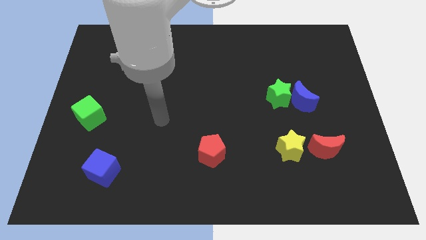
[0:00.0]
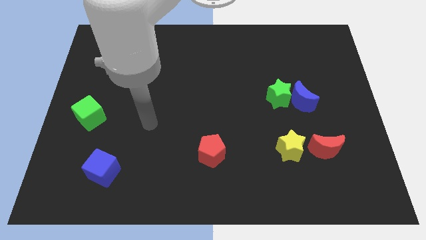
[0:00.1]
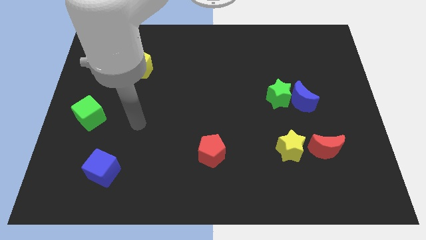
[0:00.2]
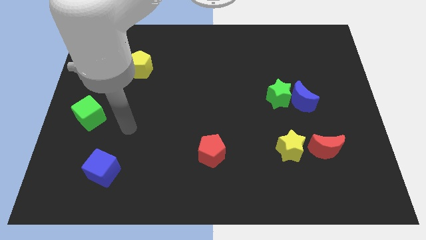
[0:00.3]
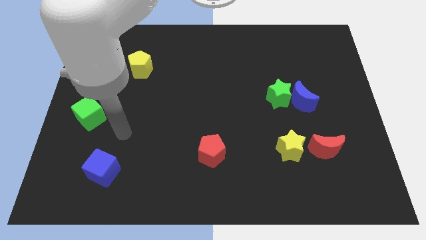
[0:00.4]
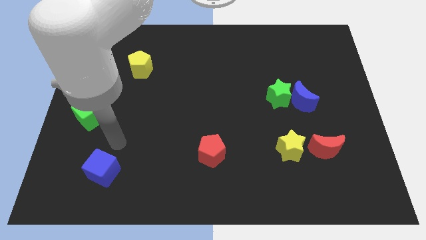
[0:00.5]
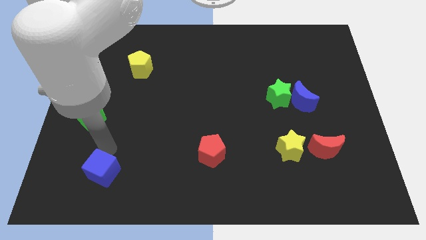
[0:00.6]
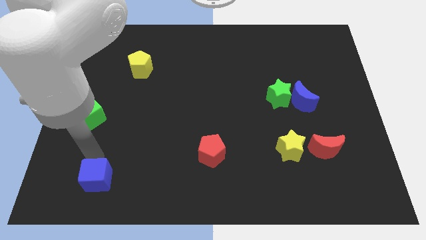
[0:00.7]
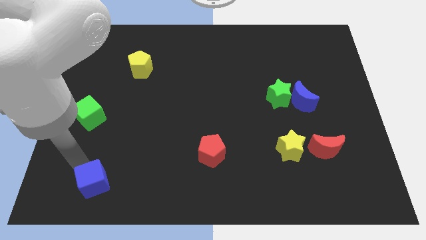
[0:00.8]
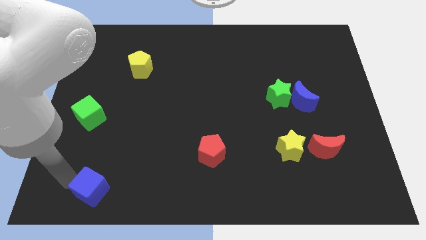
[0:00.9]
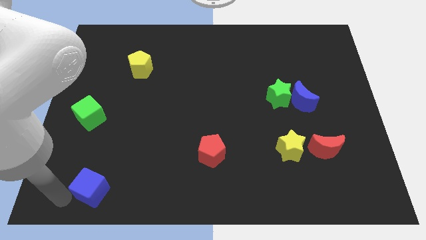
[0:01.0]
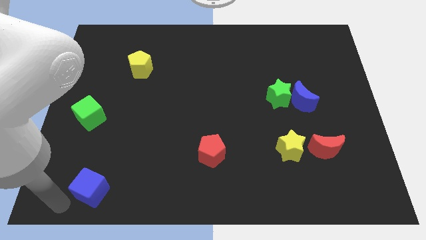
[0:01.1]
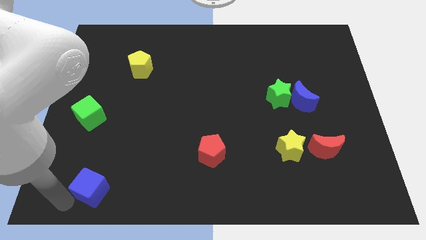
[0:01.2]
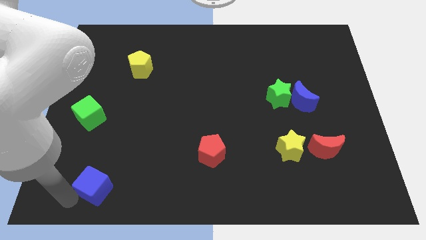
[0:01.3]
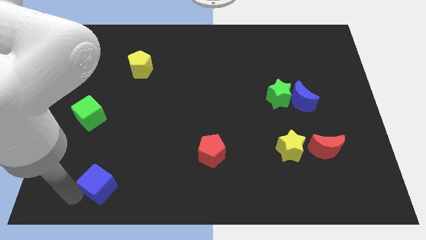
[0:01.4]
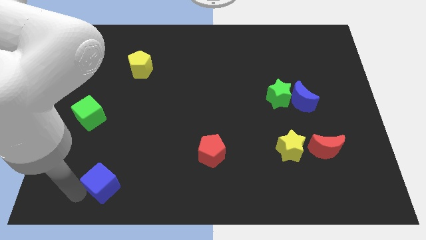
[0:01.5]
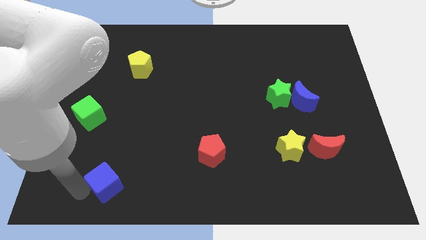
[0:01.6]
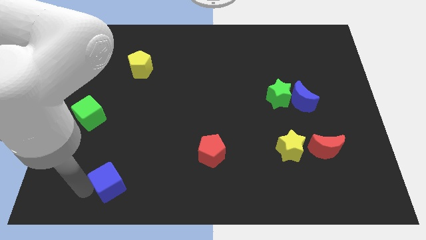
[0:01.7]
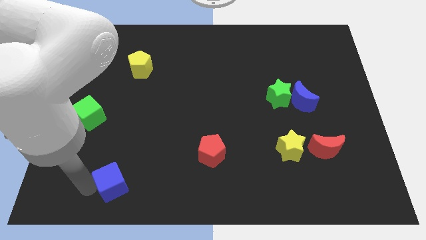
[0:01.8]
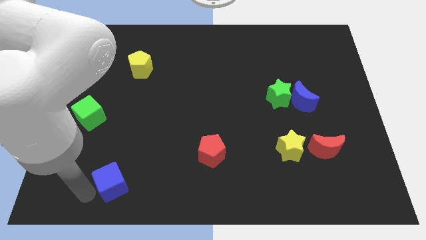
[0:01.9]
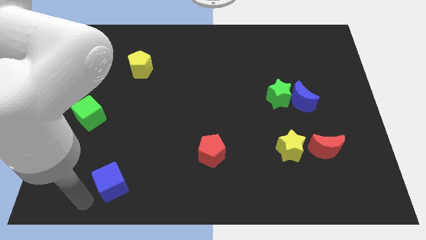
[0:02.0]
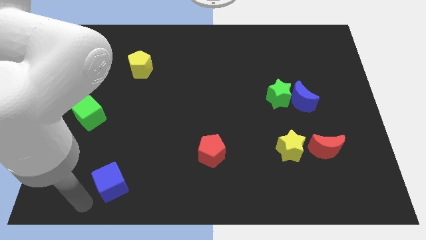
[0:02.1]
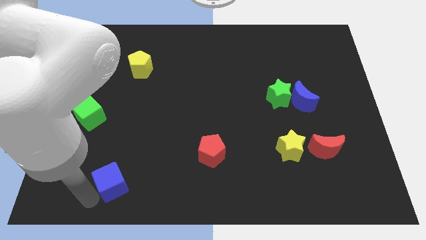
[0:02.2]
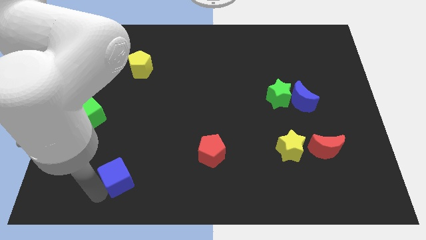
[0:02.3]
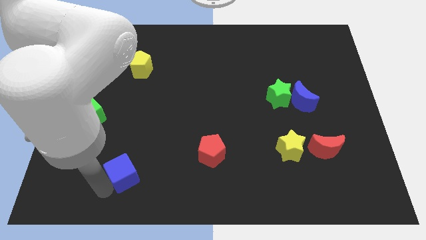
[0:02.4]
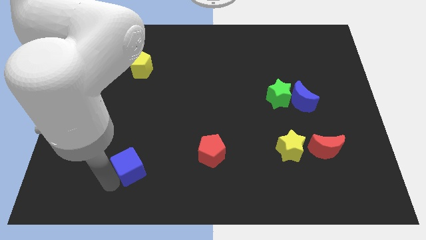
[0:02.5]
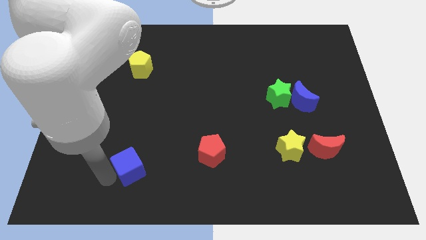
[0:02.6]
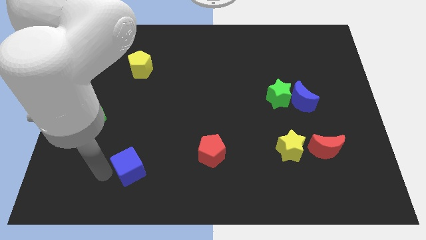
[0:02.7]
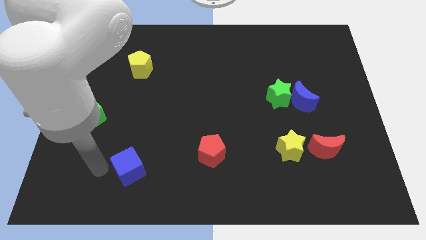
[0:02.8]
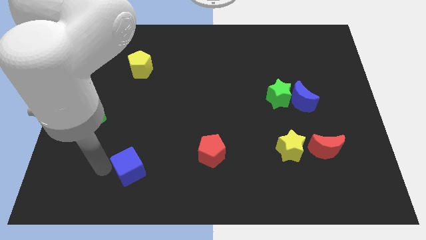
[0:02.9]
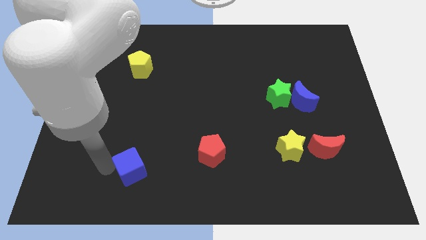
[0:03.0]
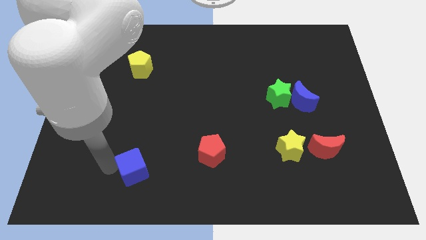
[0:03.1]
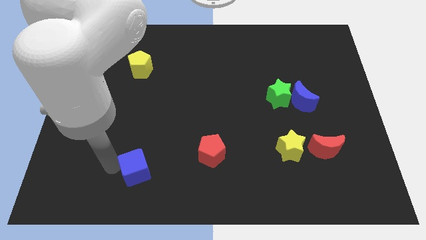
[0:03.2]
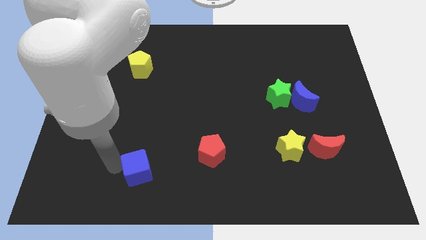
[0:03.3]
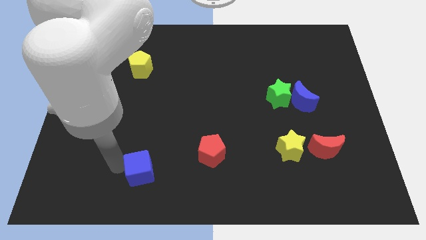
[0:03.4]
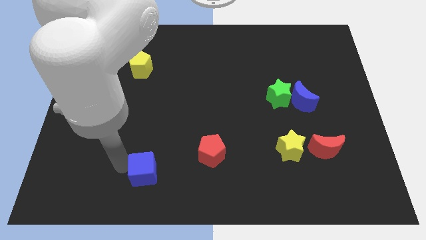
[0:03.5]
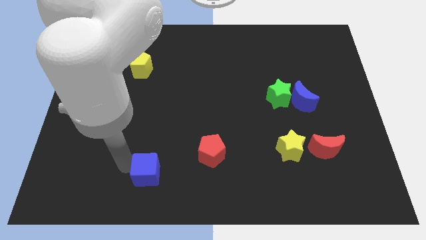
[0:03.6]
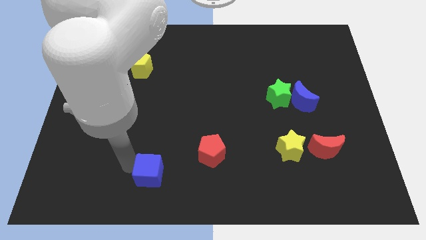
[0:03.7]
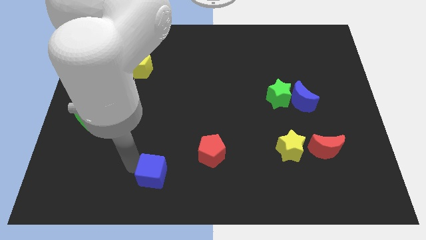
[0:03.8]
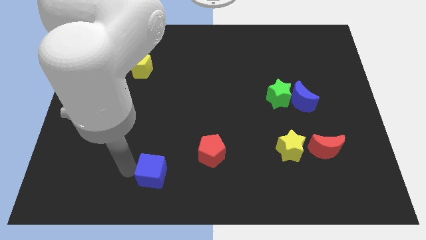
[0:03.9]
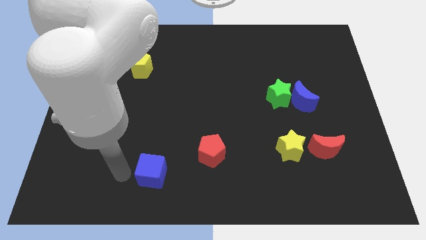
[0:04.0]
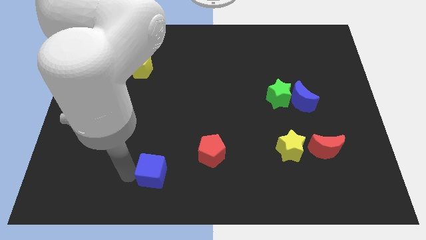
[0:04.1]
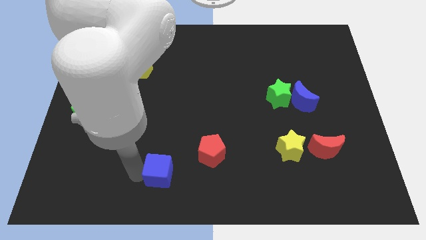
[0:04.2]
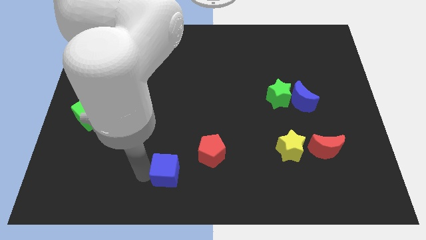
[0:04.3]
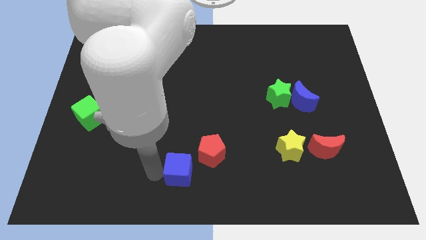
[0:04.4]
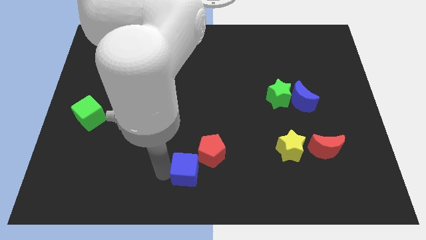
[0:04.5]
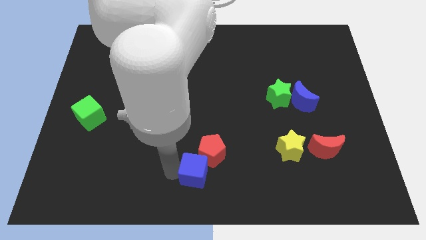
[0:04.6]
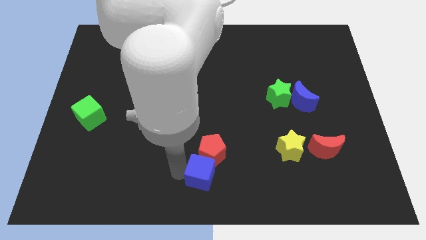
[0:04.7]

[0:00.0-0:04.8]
push the blue cube right

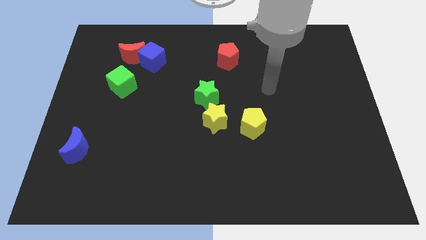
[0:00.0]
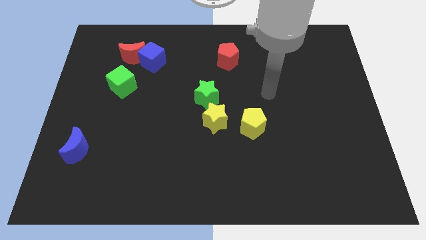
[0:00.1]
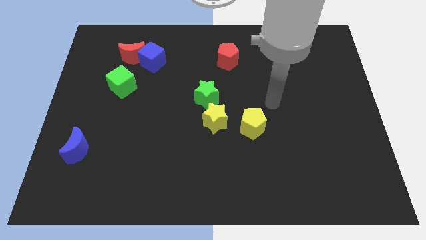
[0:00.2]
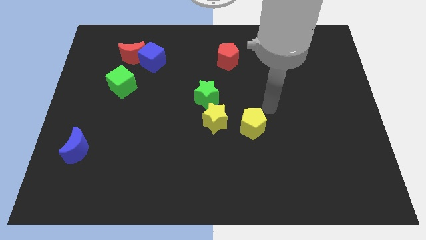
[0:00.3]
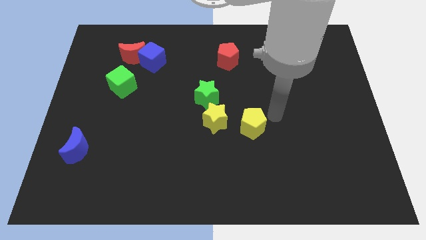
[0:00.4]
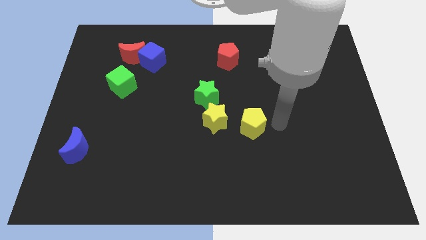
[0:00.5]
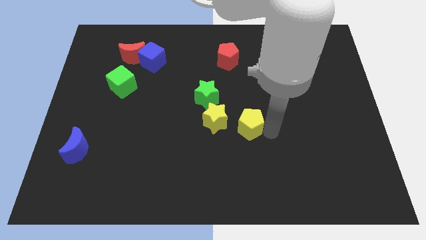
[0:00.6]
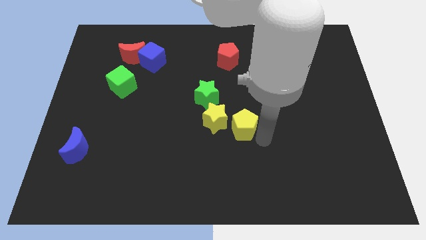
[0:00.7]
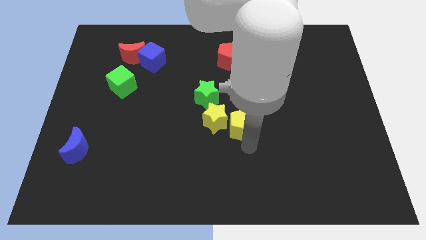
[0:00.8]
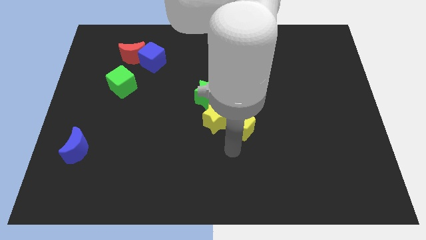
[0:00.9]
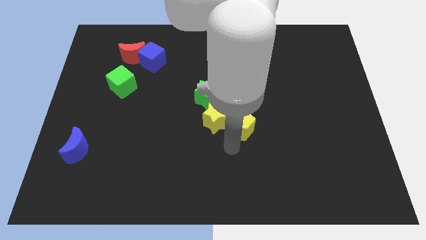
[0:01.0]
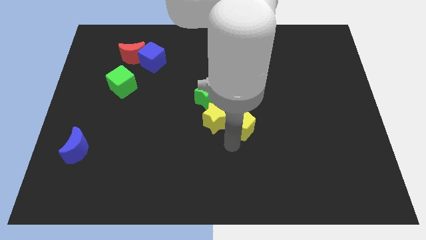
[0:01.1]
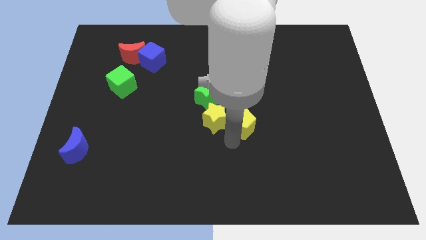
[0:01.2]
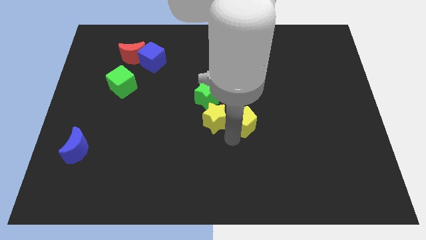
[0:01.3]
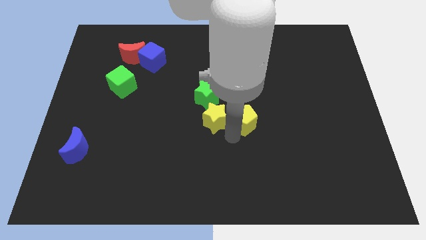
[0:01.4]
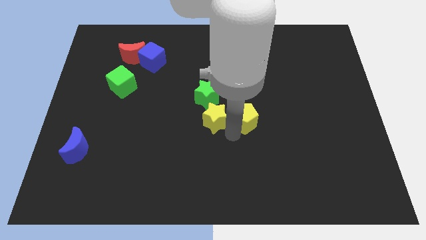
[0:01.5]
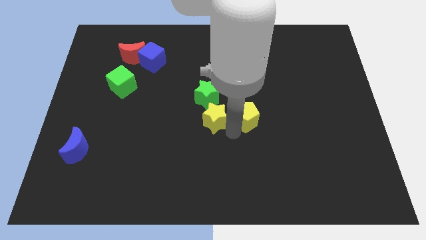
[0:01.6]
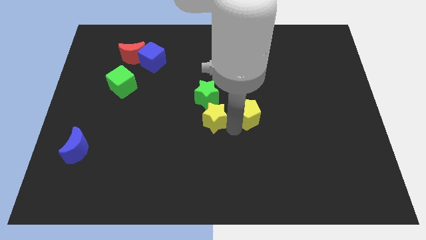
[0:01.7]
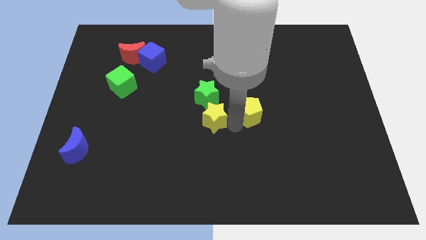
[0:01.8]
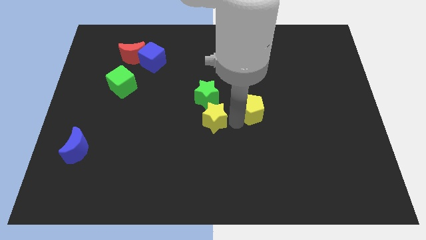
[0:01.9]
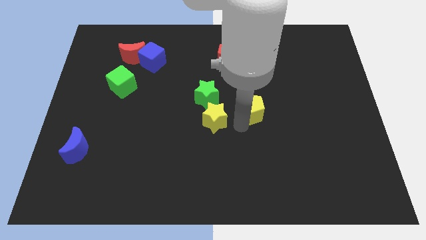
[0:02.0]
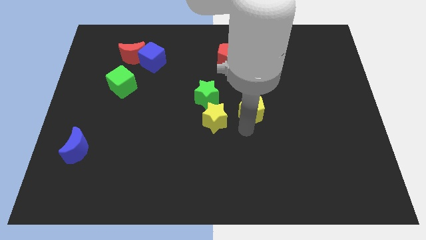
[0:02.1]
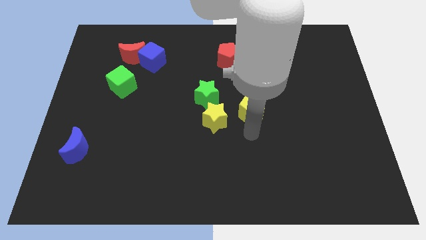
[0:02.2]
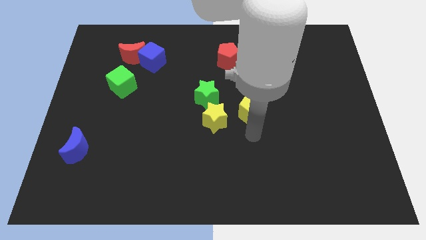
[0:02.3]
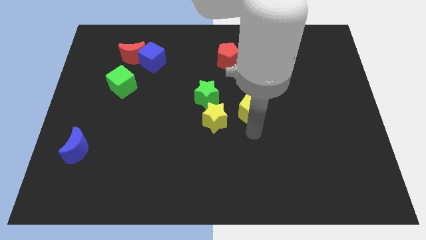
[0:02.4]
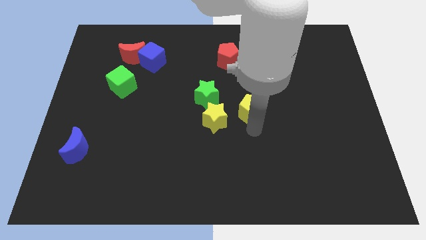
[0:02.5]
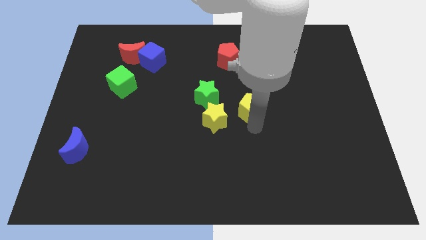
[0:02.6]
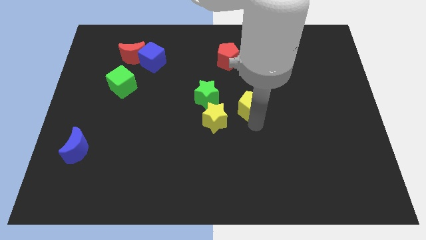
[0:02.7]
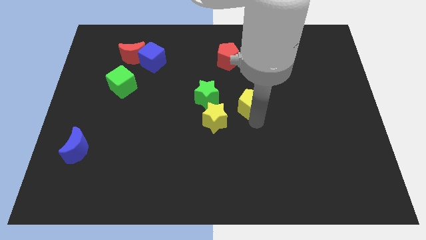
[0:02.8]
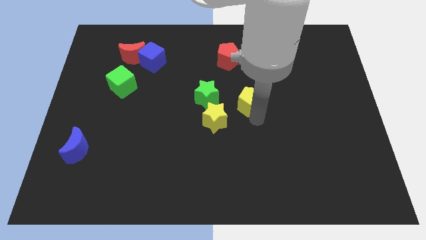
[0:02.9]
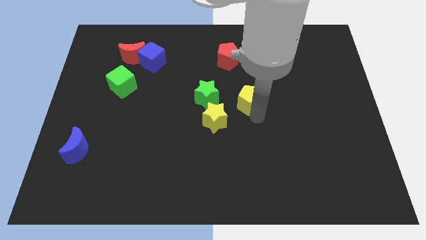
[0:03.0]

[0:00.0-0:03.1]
slide the yellow pentagon upwards slightly

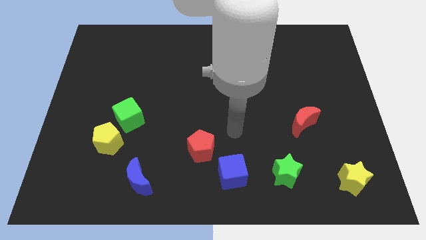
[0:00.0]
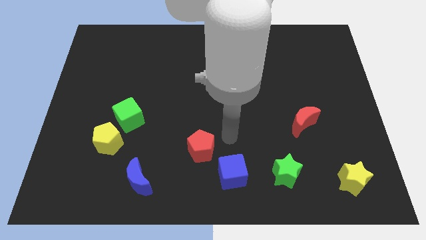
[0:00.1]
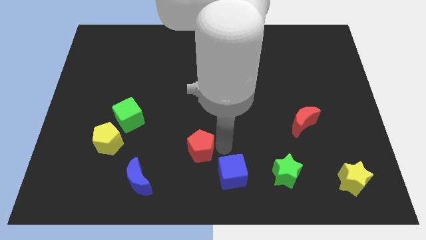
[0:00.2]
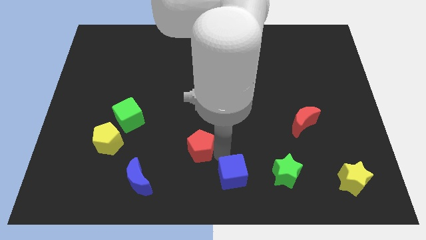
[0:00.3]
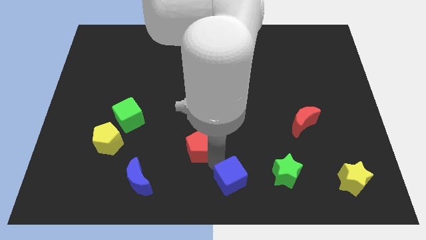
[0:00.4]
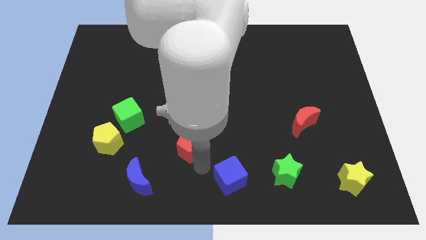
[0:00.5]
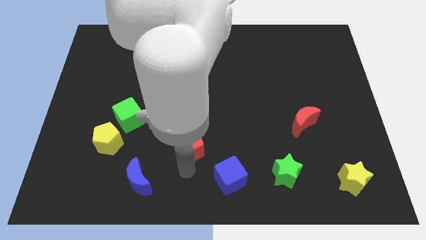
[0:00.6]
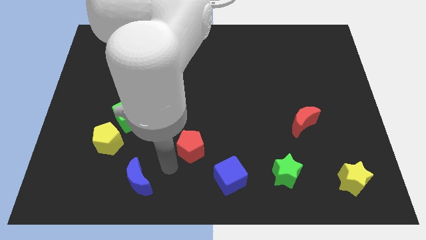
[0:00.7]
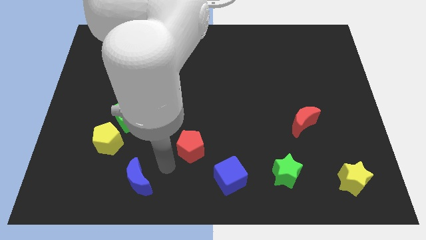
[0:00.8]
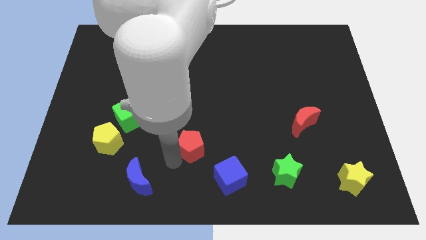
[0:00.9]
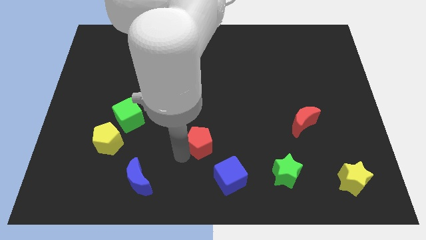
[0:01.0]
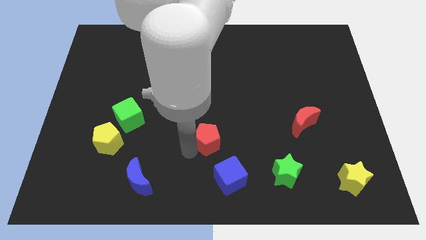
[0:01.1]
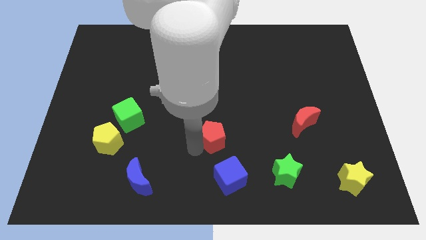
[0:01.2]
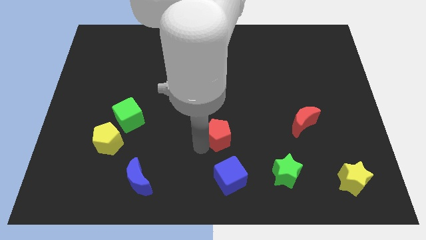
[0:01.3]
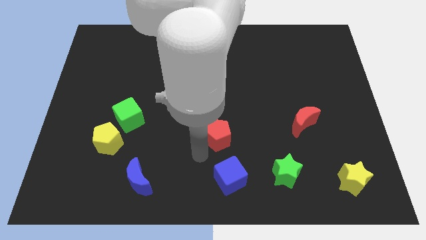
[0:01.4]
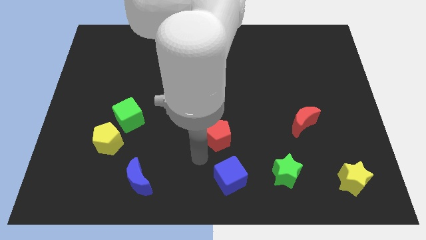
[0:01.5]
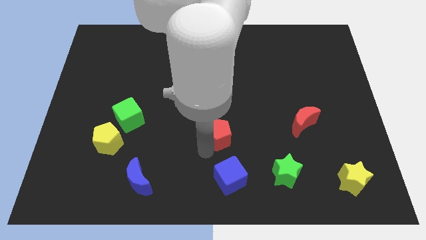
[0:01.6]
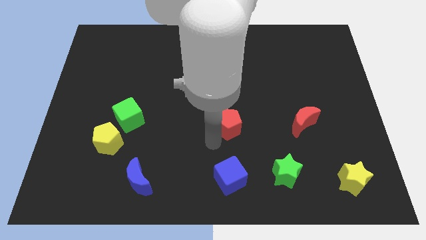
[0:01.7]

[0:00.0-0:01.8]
slide the red pentagon slightly upwards and to the right
